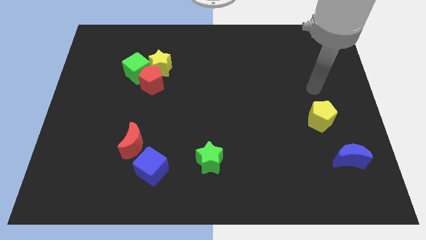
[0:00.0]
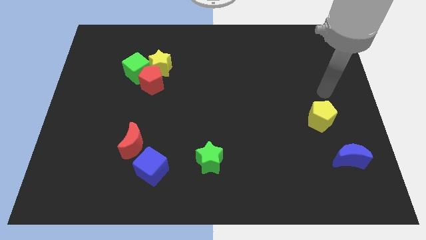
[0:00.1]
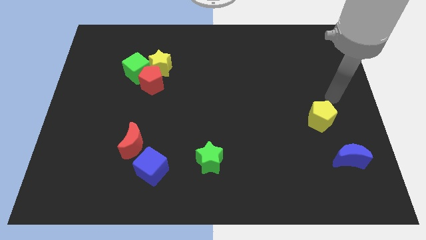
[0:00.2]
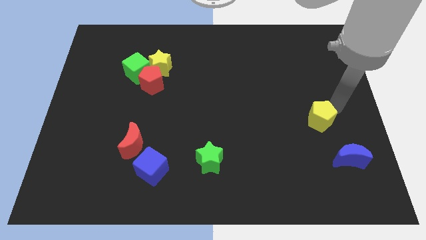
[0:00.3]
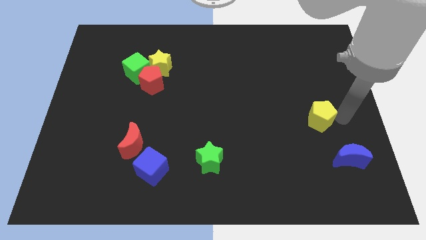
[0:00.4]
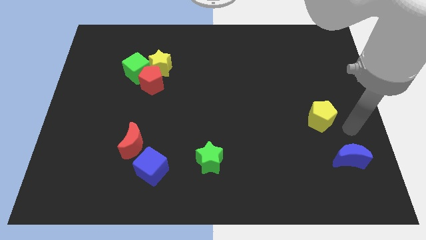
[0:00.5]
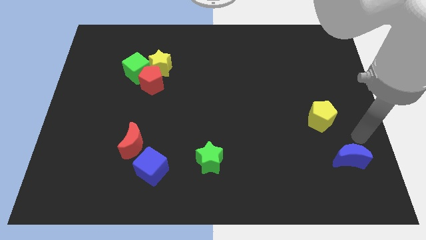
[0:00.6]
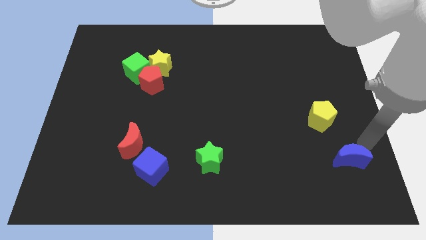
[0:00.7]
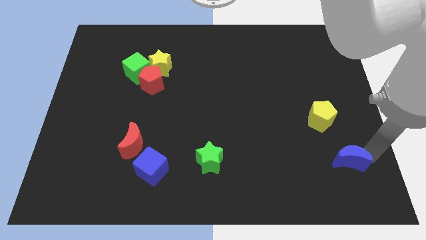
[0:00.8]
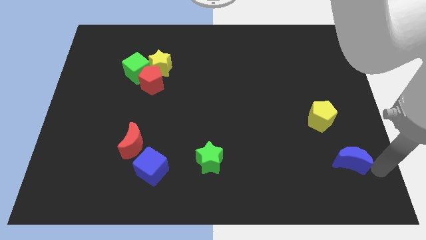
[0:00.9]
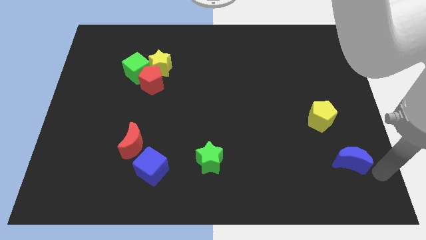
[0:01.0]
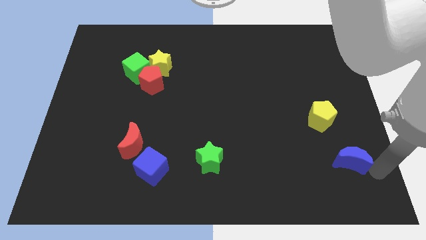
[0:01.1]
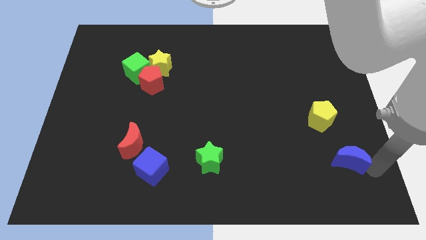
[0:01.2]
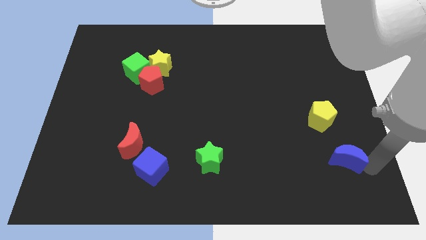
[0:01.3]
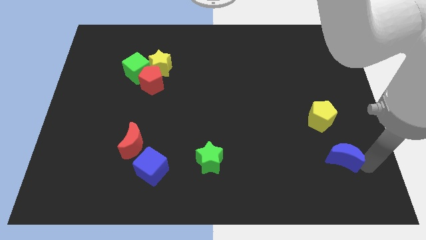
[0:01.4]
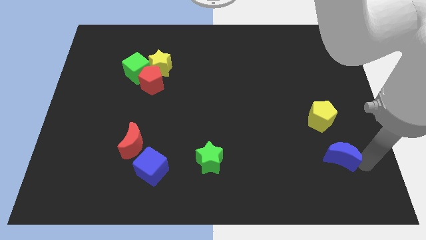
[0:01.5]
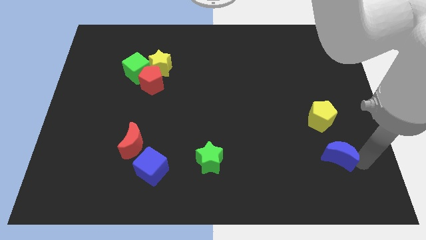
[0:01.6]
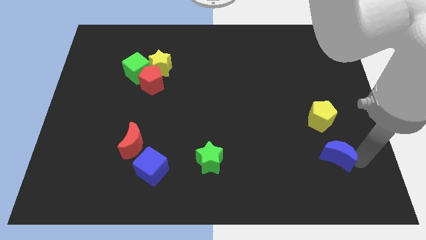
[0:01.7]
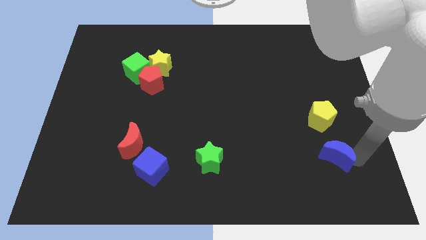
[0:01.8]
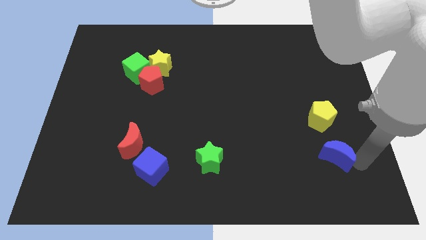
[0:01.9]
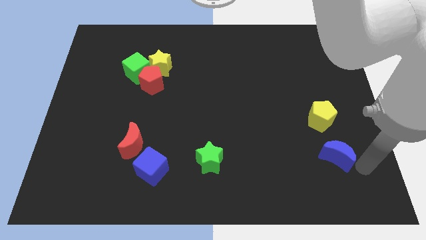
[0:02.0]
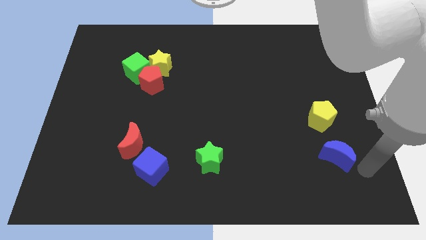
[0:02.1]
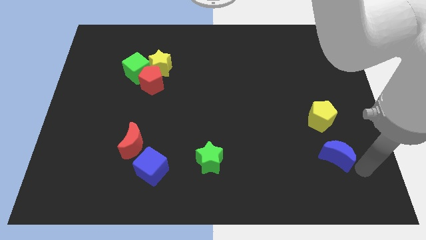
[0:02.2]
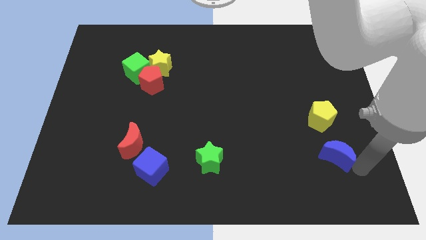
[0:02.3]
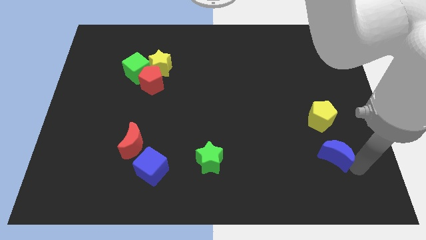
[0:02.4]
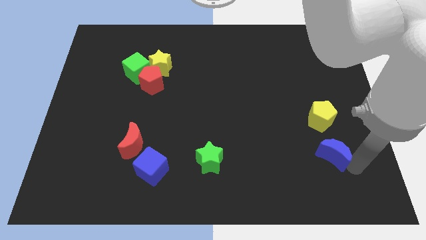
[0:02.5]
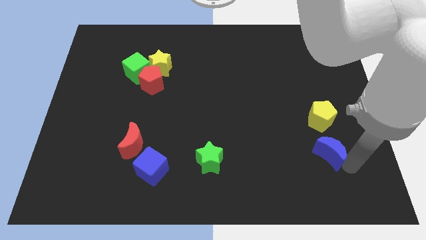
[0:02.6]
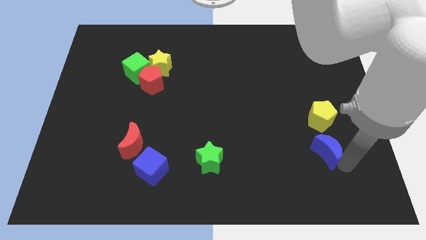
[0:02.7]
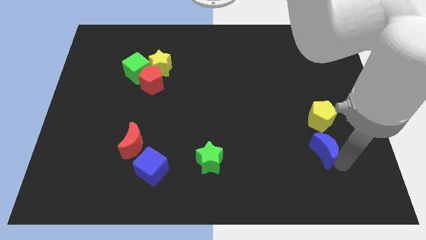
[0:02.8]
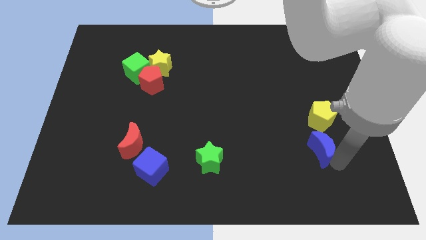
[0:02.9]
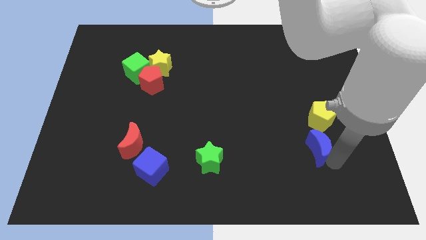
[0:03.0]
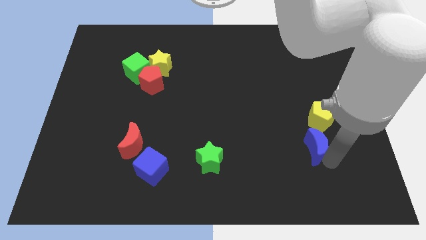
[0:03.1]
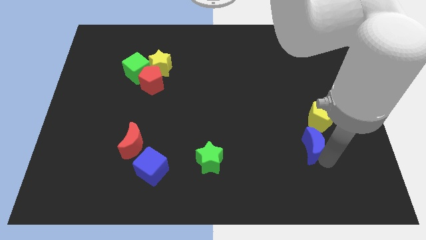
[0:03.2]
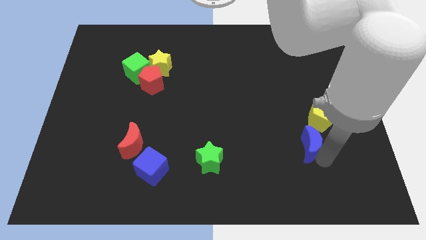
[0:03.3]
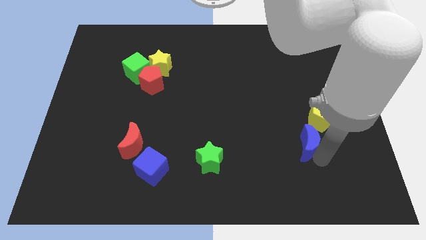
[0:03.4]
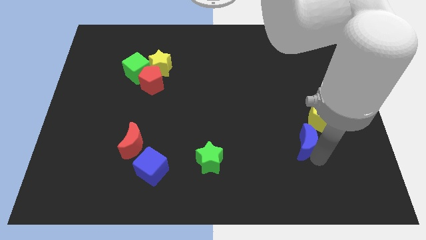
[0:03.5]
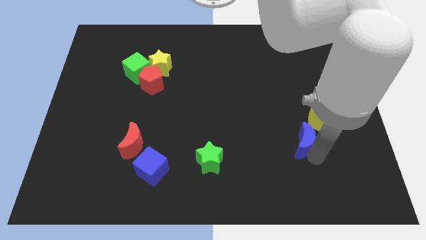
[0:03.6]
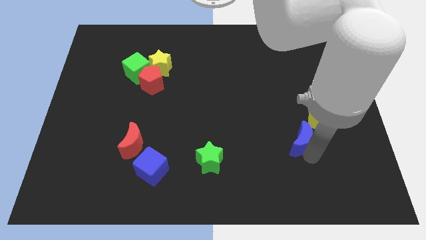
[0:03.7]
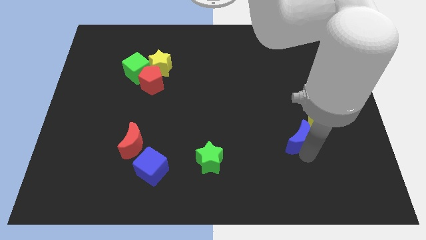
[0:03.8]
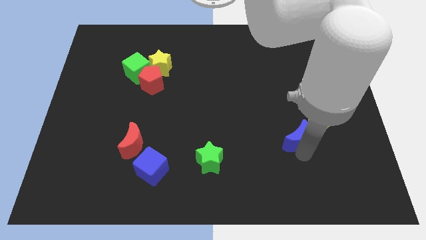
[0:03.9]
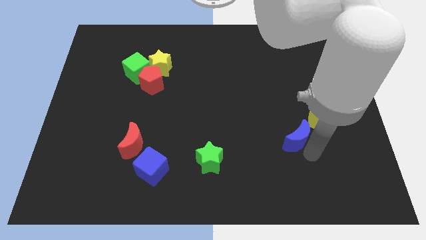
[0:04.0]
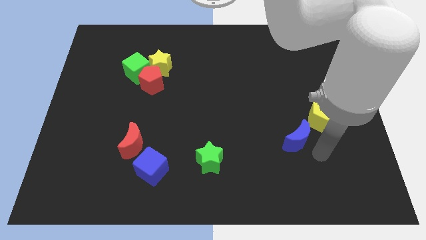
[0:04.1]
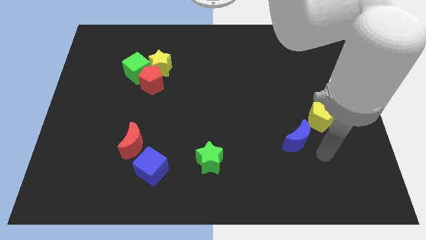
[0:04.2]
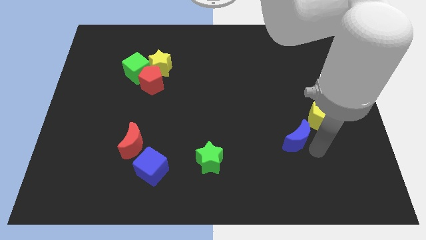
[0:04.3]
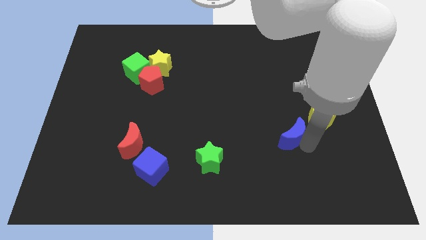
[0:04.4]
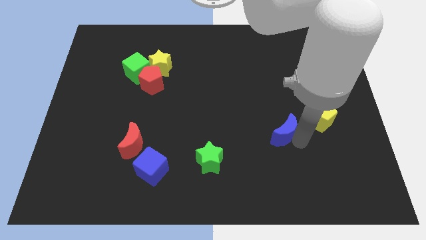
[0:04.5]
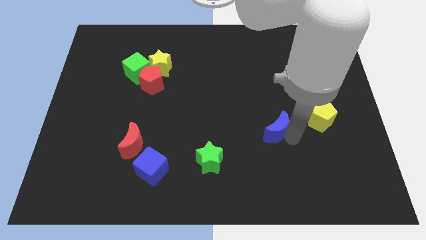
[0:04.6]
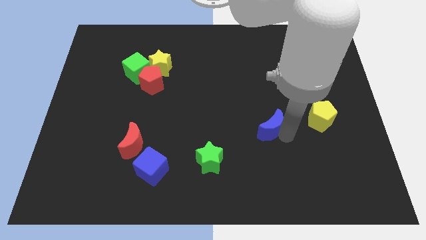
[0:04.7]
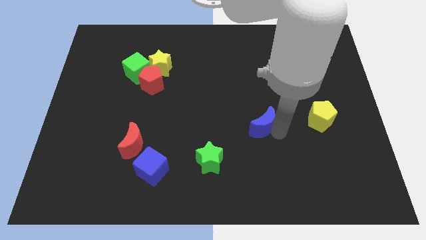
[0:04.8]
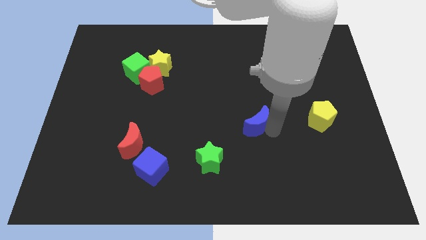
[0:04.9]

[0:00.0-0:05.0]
slide the blue moon to the middle
